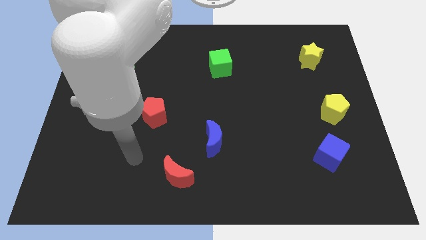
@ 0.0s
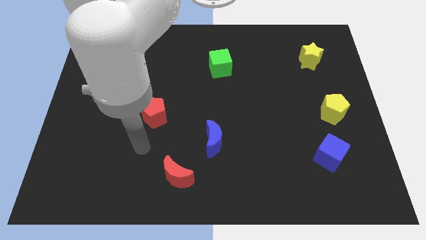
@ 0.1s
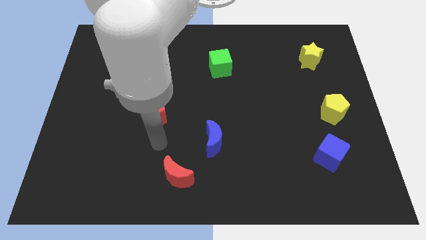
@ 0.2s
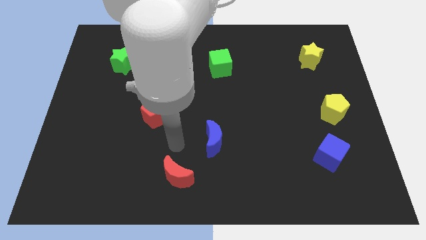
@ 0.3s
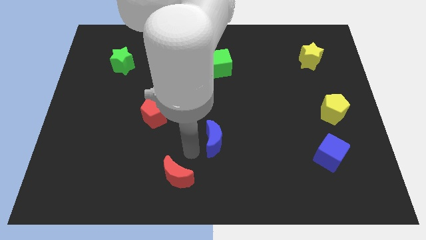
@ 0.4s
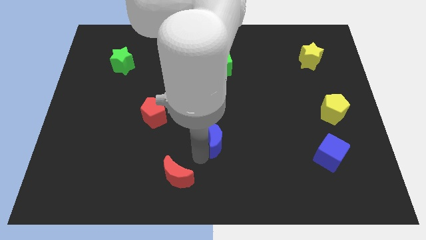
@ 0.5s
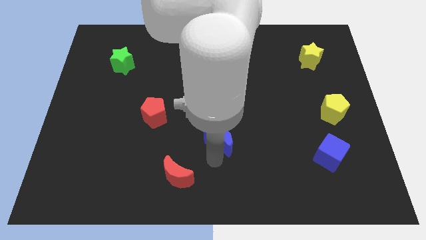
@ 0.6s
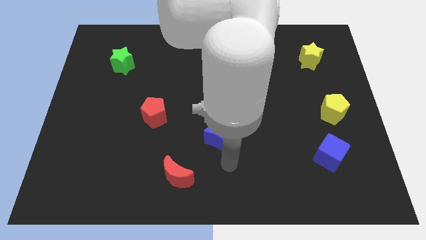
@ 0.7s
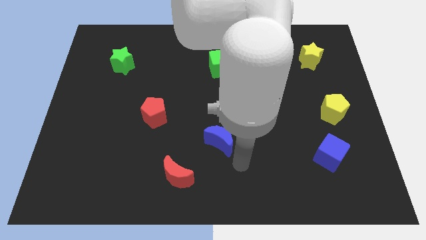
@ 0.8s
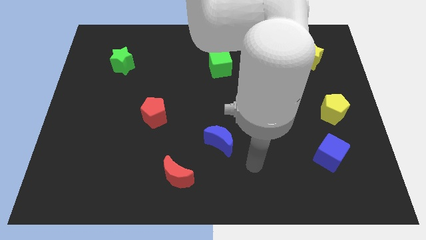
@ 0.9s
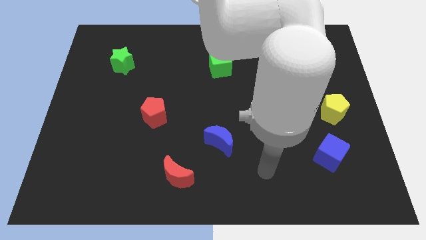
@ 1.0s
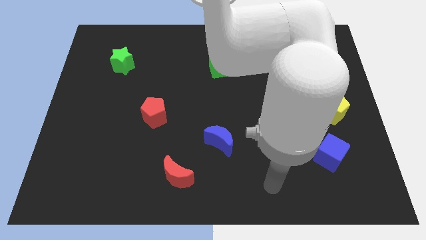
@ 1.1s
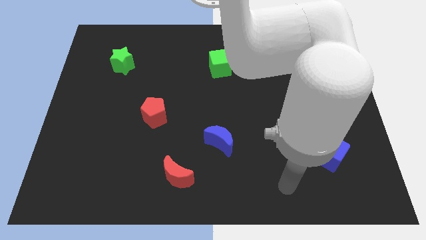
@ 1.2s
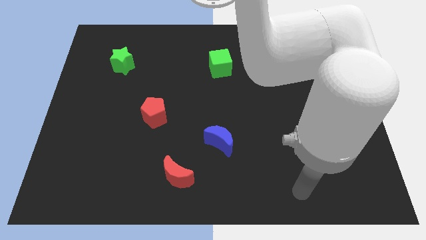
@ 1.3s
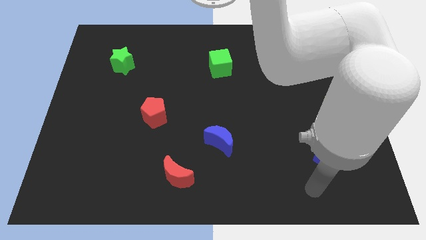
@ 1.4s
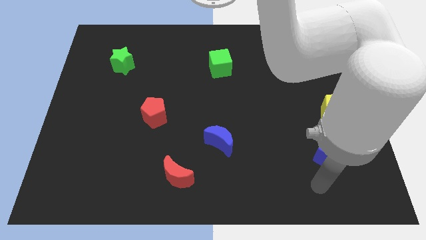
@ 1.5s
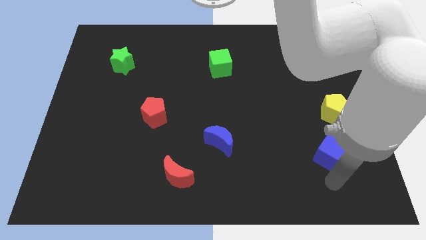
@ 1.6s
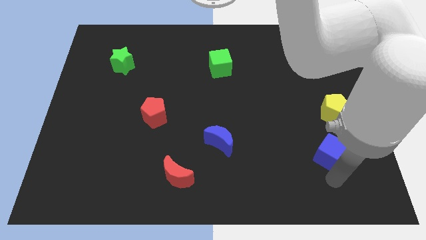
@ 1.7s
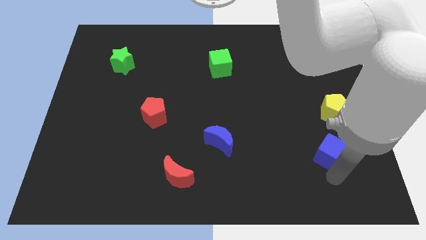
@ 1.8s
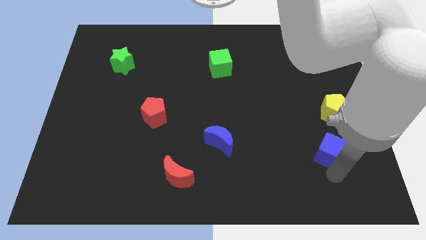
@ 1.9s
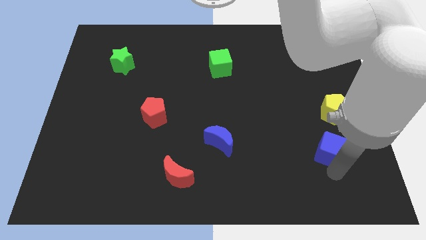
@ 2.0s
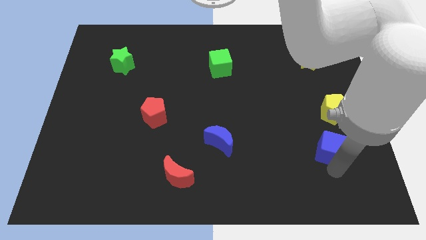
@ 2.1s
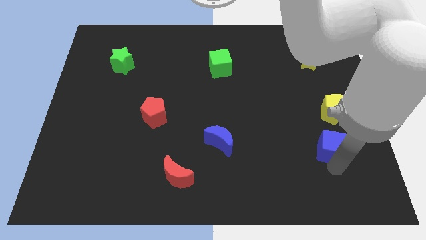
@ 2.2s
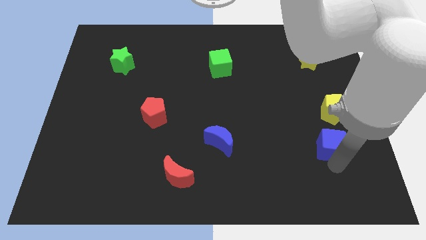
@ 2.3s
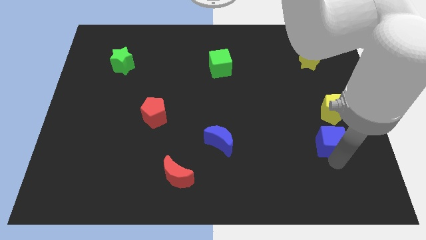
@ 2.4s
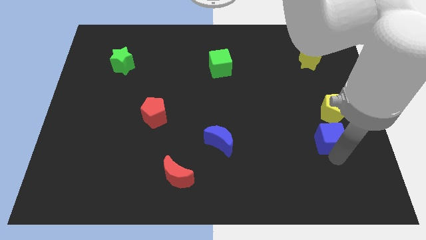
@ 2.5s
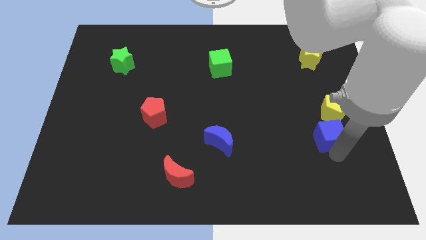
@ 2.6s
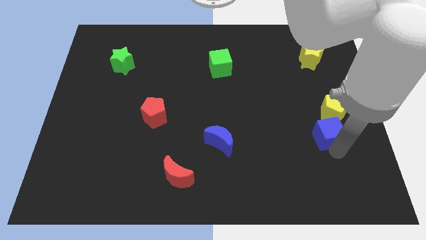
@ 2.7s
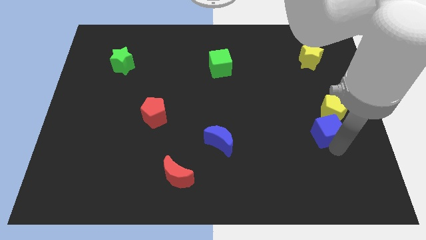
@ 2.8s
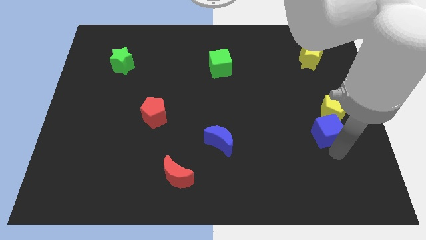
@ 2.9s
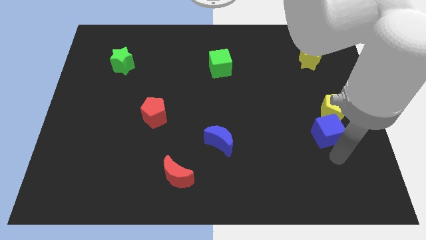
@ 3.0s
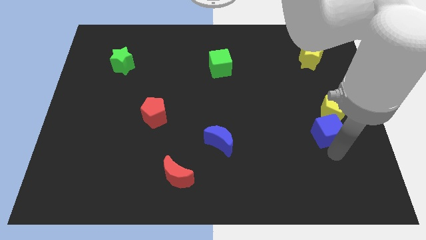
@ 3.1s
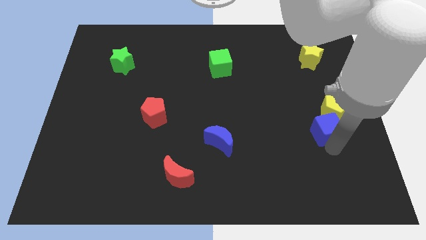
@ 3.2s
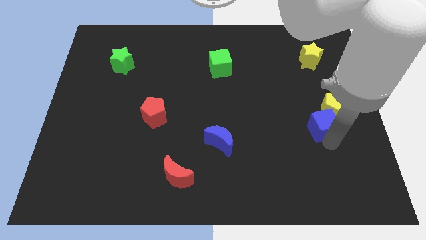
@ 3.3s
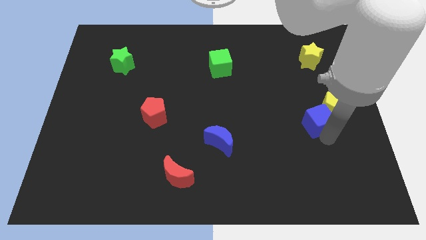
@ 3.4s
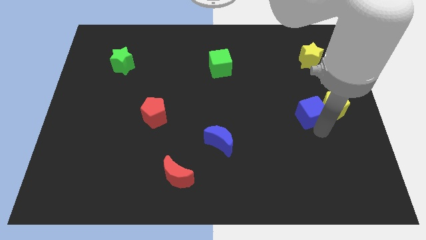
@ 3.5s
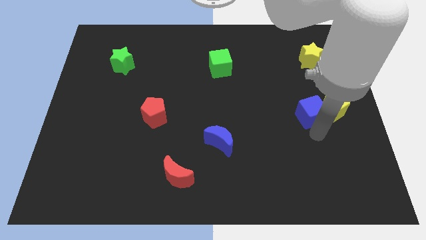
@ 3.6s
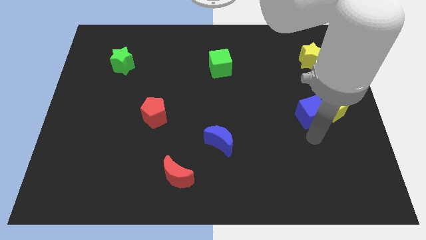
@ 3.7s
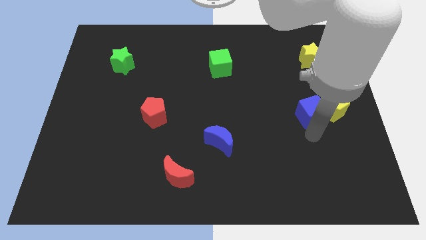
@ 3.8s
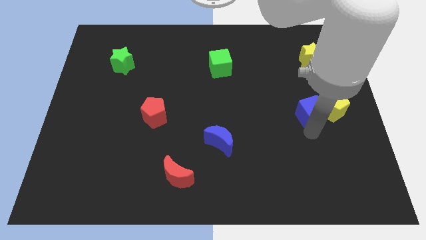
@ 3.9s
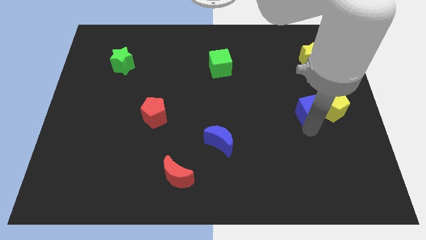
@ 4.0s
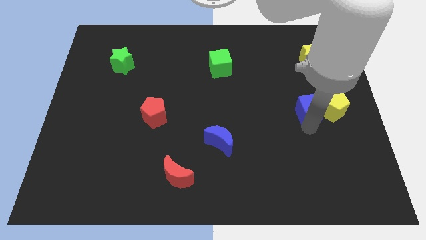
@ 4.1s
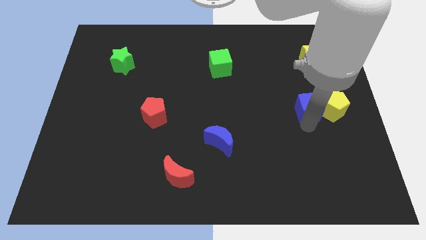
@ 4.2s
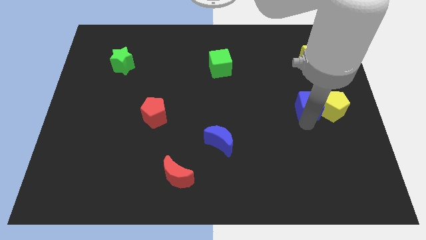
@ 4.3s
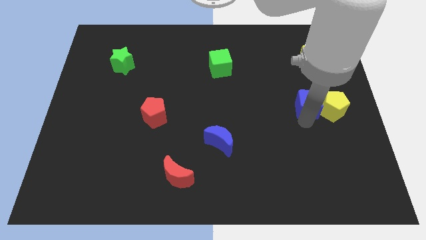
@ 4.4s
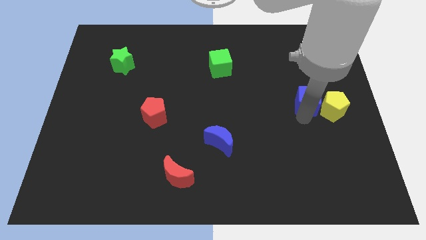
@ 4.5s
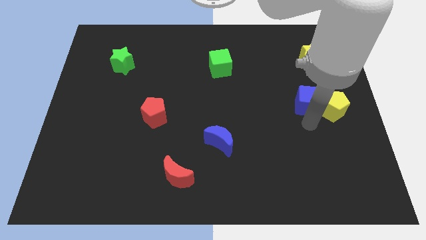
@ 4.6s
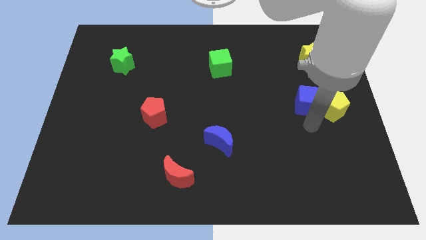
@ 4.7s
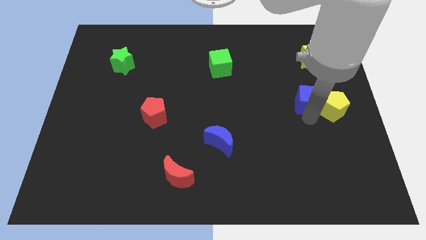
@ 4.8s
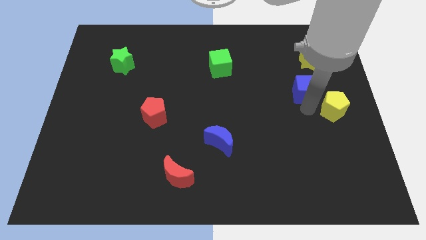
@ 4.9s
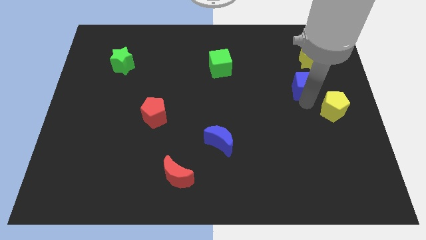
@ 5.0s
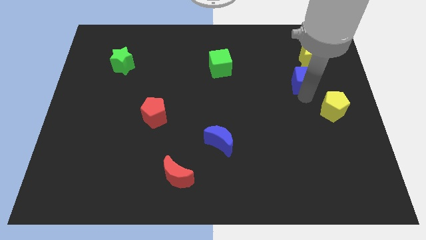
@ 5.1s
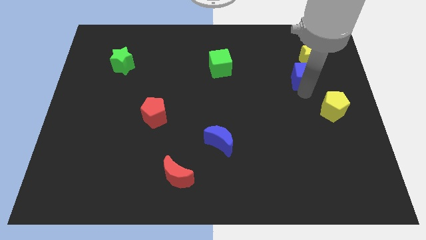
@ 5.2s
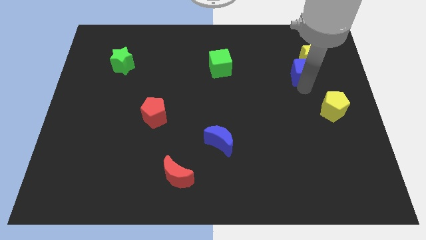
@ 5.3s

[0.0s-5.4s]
slide the blue cube towards the yellow star

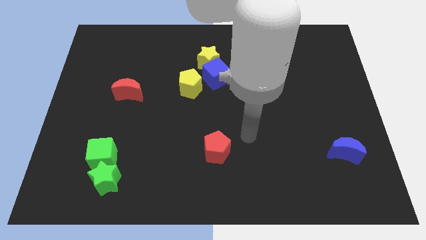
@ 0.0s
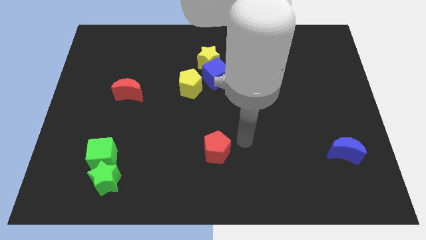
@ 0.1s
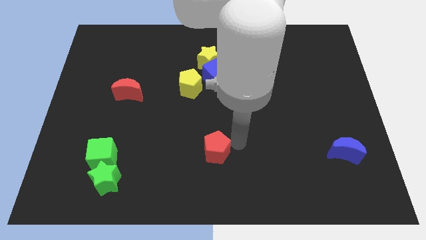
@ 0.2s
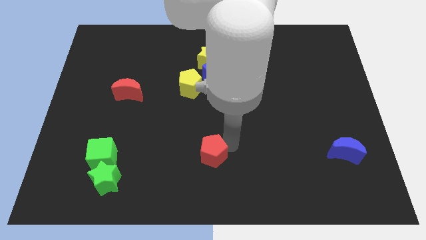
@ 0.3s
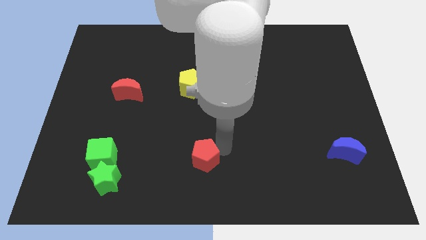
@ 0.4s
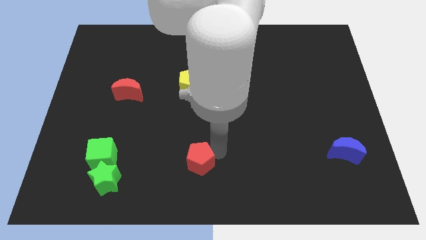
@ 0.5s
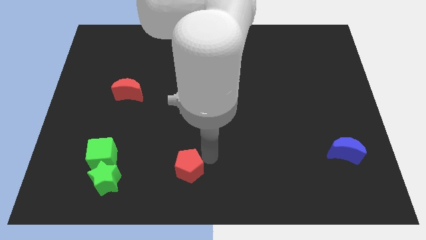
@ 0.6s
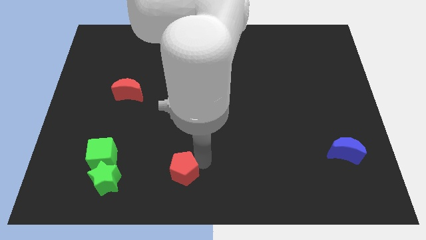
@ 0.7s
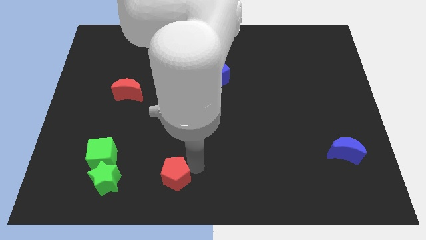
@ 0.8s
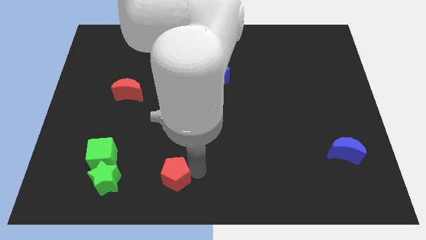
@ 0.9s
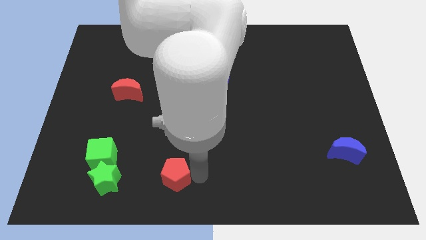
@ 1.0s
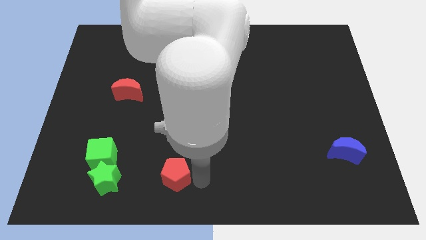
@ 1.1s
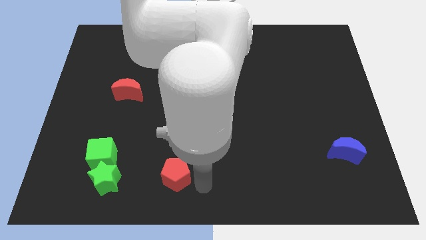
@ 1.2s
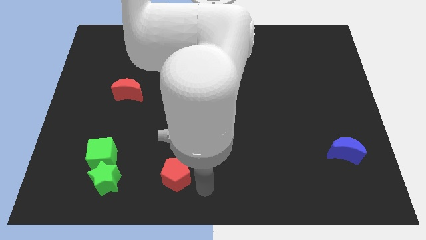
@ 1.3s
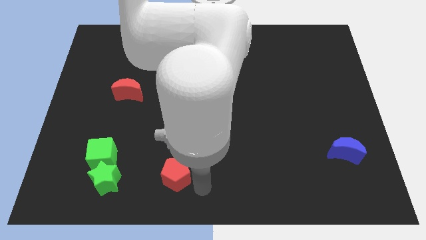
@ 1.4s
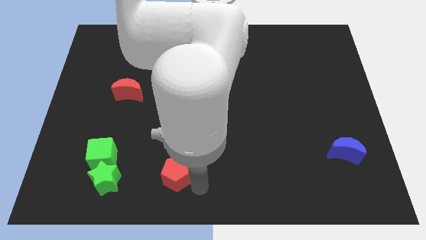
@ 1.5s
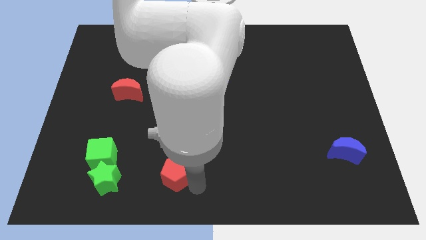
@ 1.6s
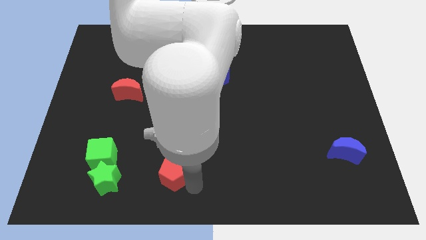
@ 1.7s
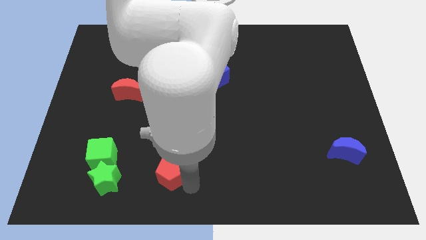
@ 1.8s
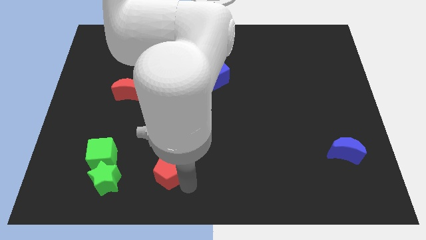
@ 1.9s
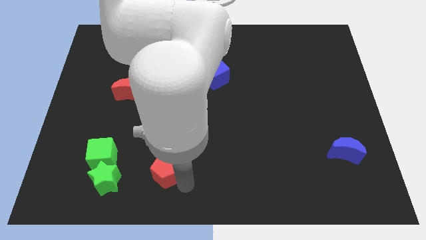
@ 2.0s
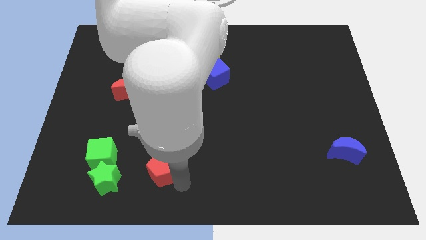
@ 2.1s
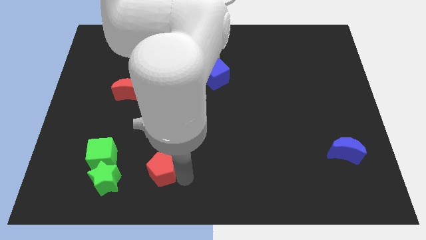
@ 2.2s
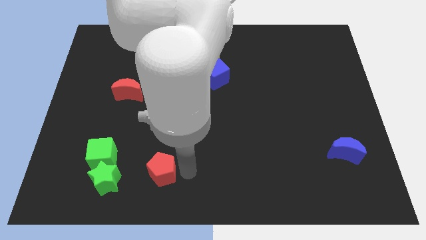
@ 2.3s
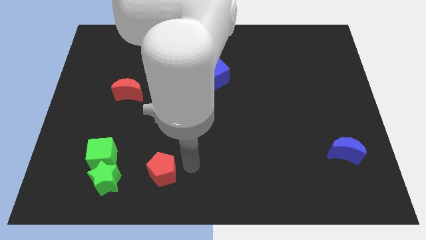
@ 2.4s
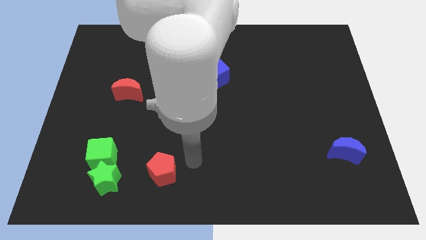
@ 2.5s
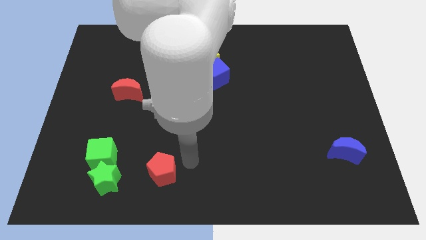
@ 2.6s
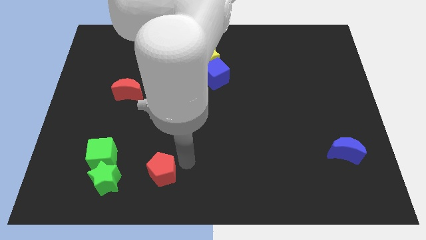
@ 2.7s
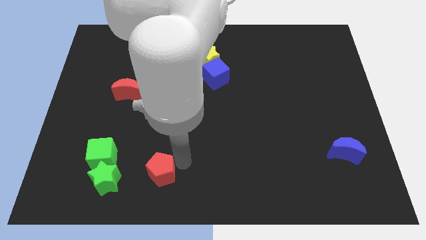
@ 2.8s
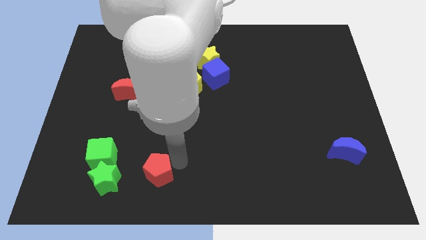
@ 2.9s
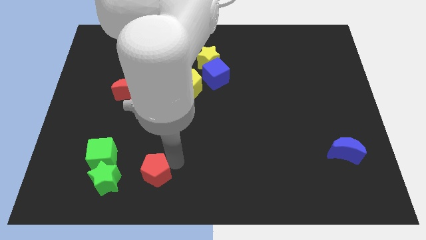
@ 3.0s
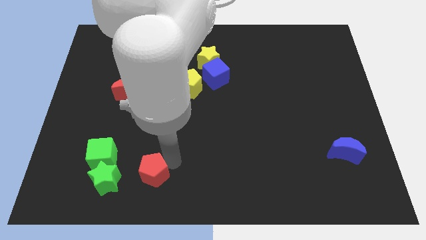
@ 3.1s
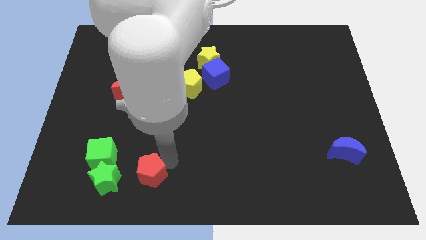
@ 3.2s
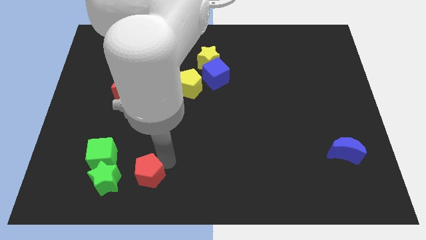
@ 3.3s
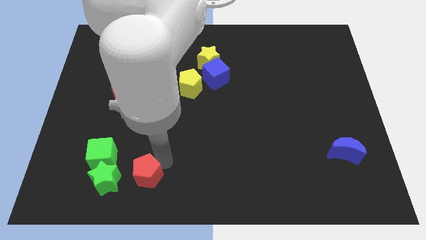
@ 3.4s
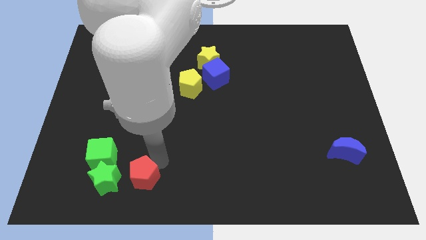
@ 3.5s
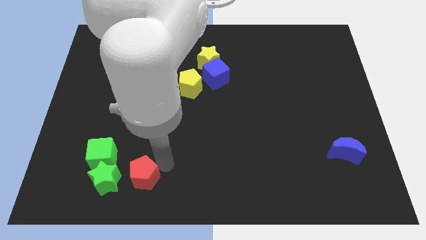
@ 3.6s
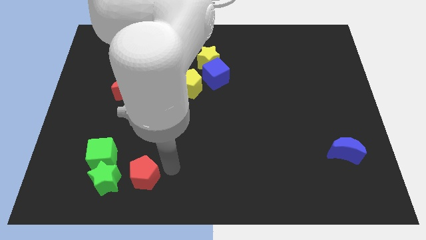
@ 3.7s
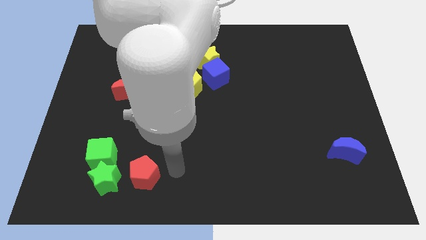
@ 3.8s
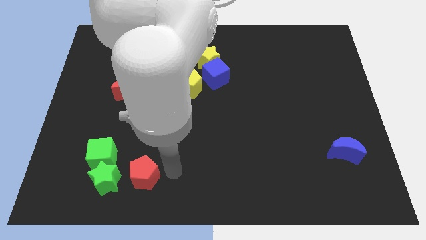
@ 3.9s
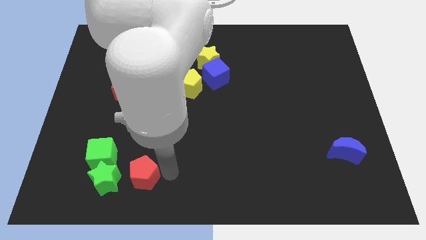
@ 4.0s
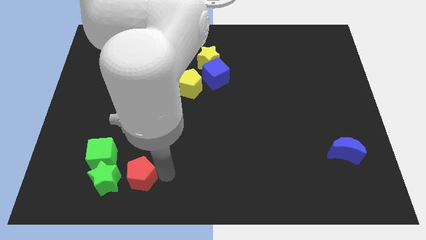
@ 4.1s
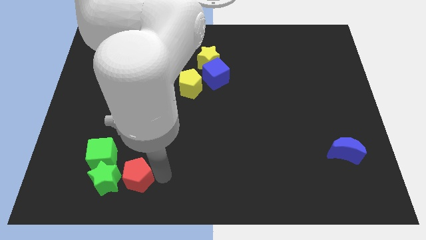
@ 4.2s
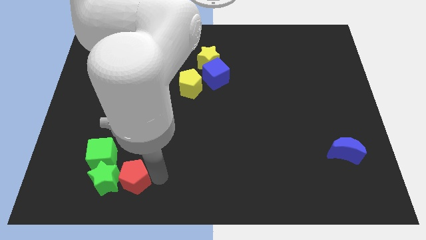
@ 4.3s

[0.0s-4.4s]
move the red pentagon towards the green star
